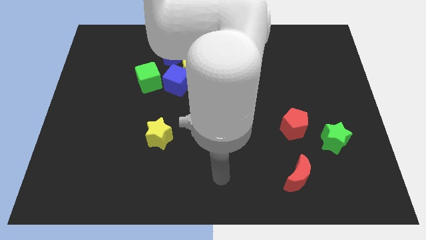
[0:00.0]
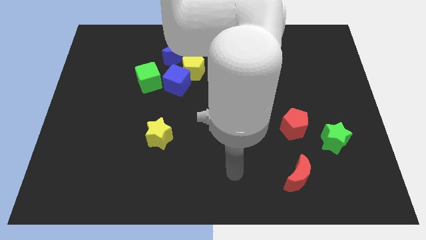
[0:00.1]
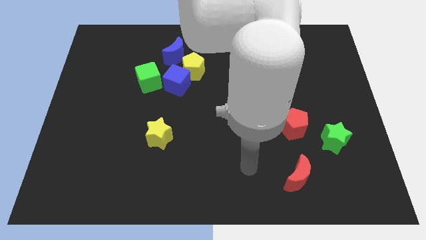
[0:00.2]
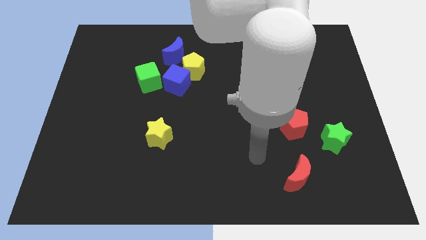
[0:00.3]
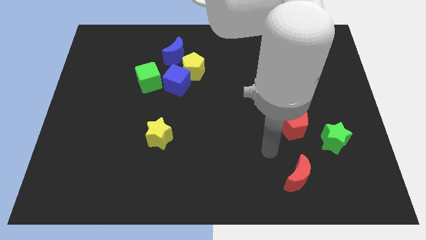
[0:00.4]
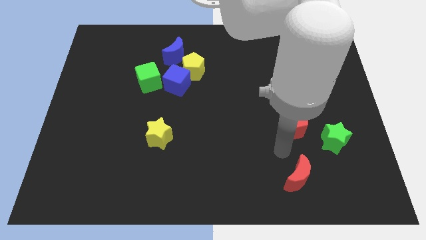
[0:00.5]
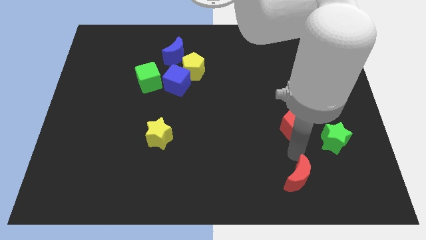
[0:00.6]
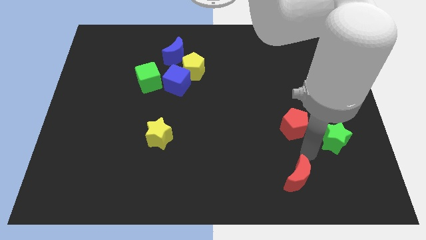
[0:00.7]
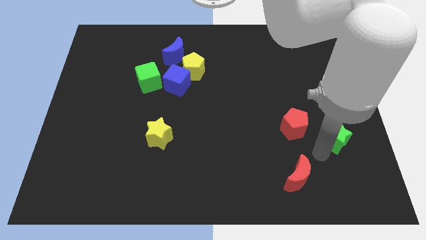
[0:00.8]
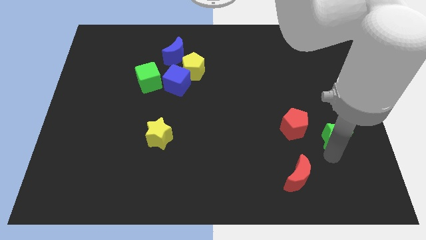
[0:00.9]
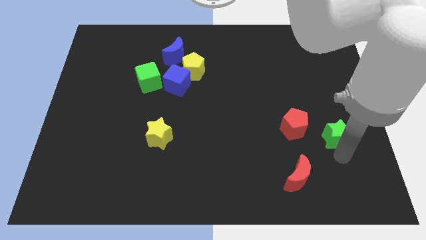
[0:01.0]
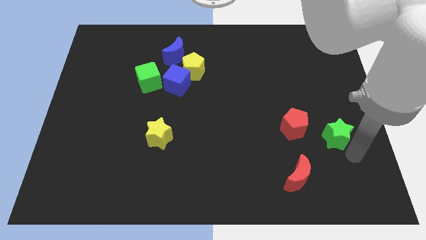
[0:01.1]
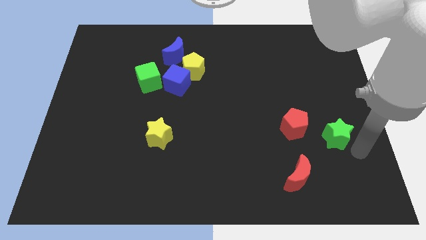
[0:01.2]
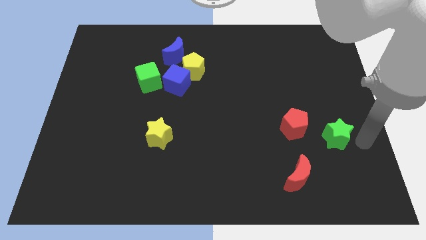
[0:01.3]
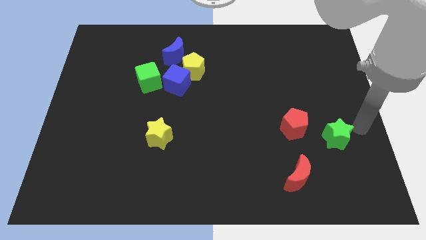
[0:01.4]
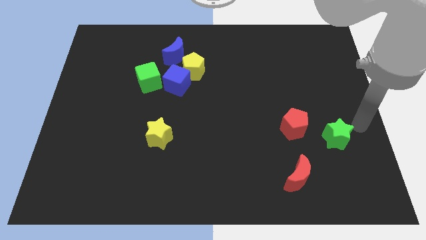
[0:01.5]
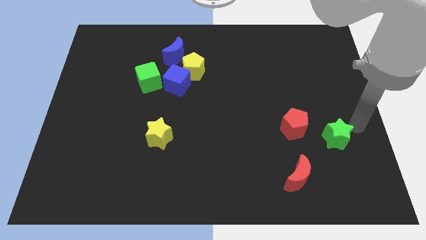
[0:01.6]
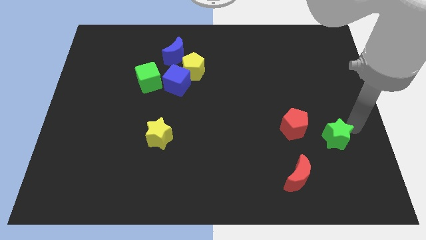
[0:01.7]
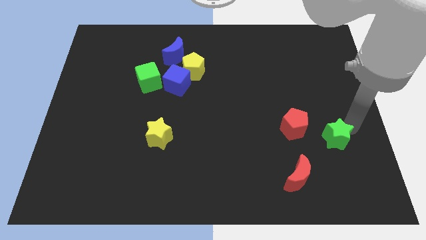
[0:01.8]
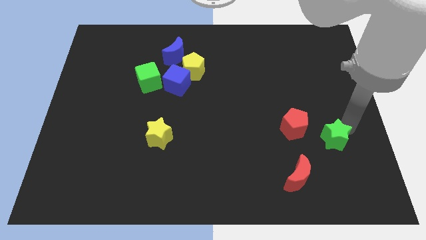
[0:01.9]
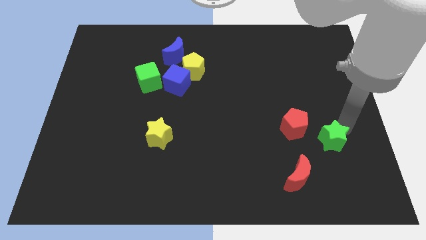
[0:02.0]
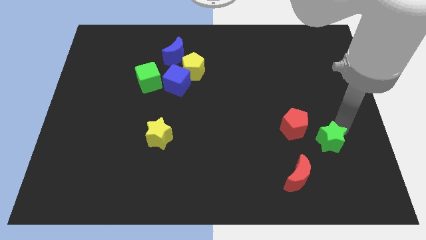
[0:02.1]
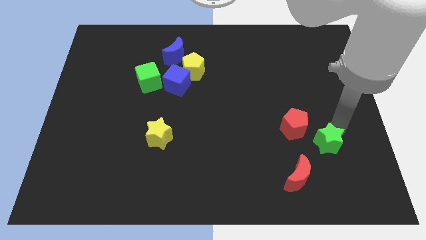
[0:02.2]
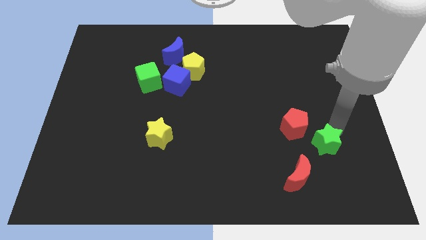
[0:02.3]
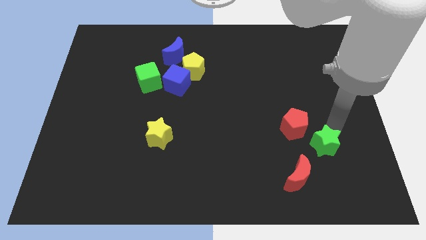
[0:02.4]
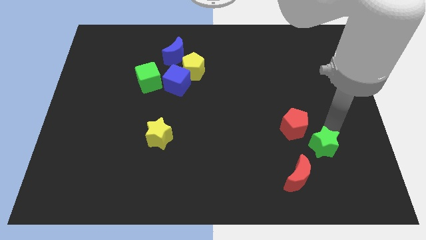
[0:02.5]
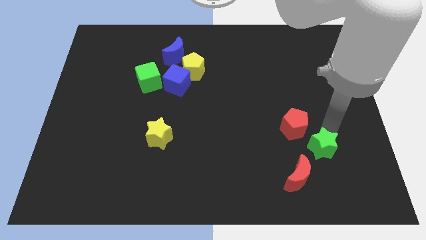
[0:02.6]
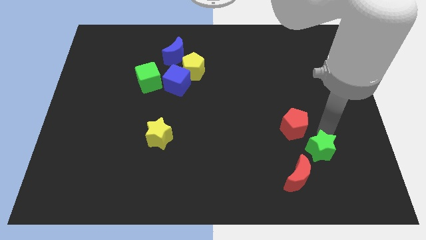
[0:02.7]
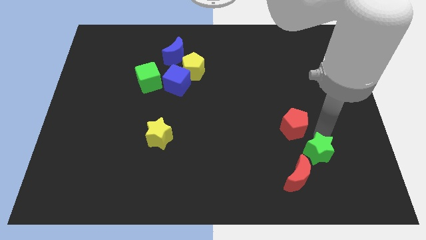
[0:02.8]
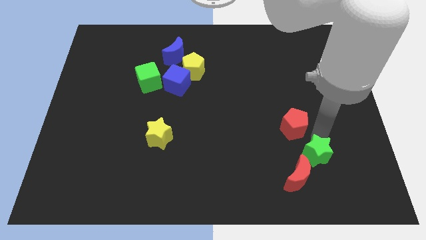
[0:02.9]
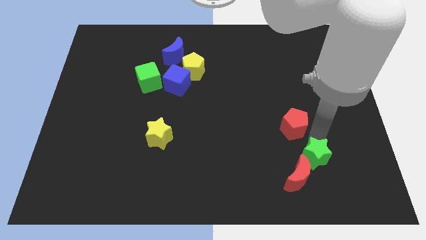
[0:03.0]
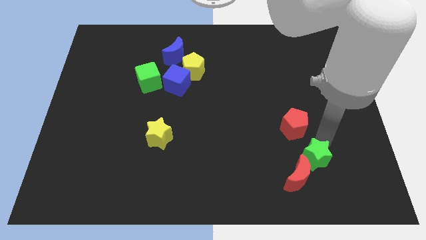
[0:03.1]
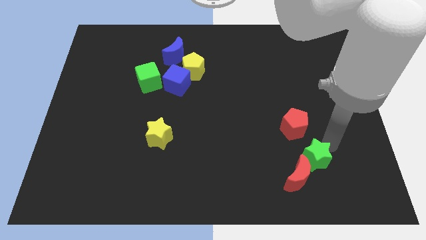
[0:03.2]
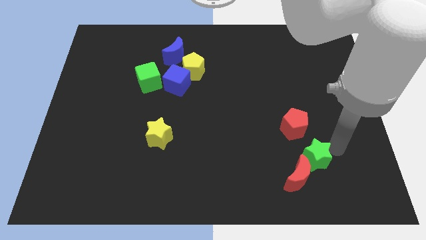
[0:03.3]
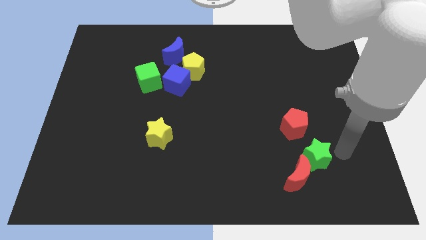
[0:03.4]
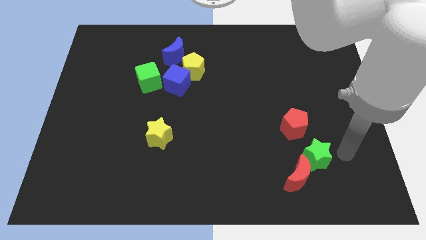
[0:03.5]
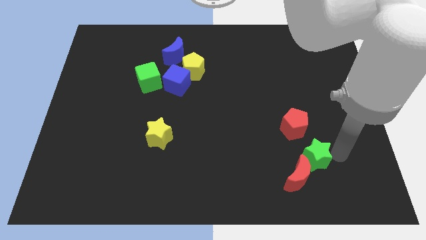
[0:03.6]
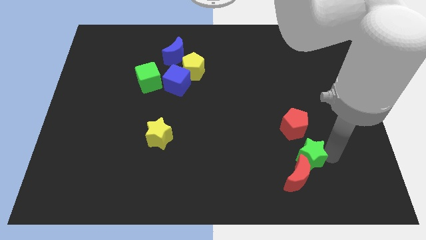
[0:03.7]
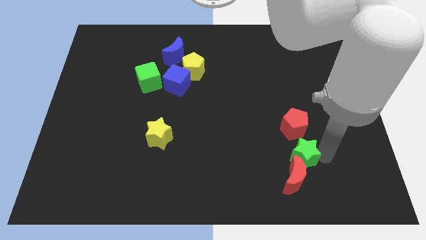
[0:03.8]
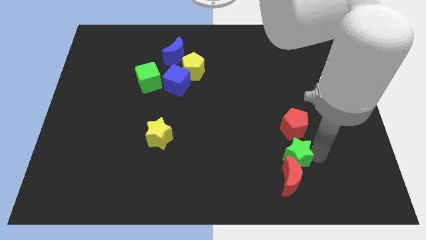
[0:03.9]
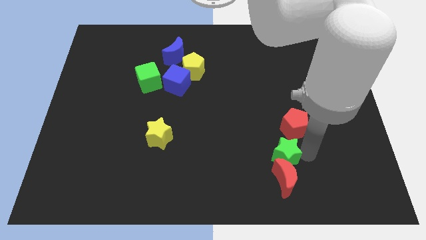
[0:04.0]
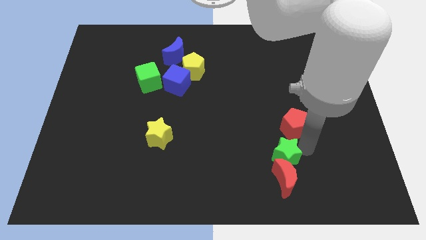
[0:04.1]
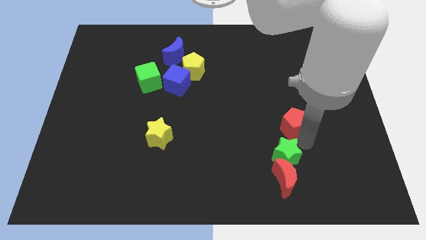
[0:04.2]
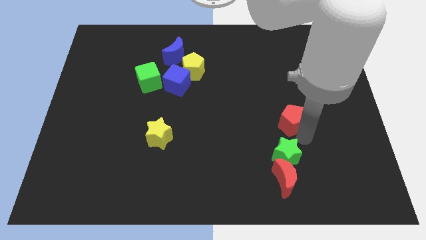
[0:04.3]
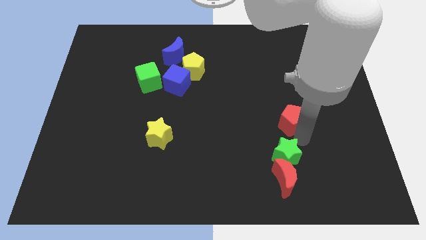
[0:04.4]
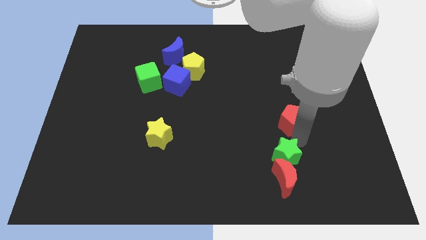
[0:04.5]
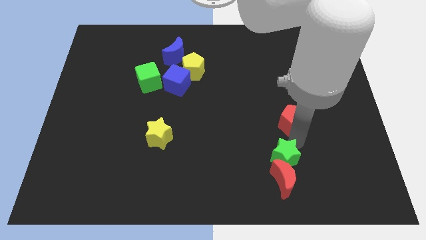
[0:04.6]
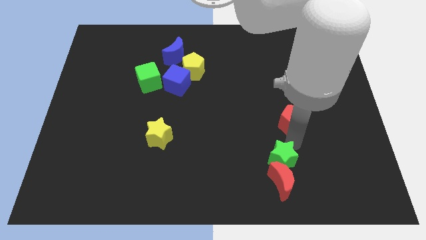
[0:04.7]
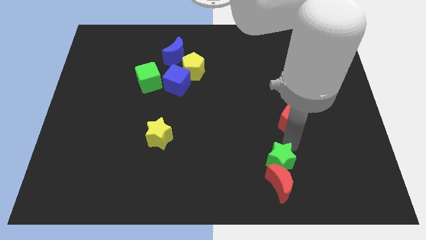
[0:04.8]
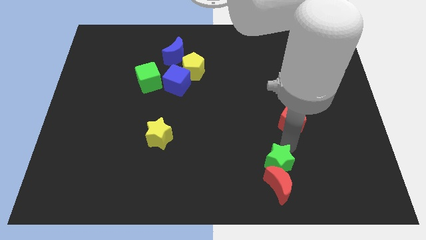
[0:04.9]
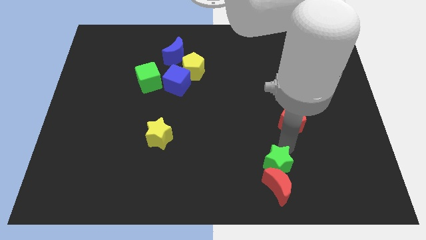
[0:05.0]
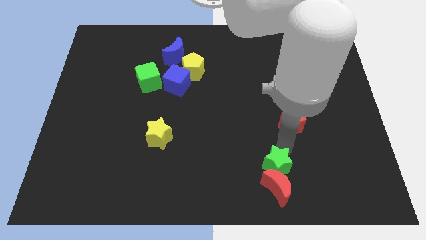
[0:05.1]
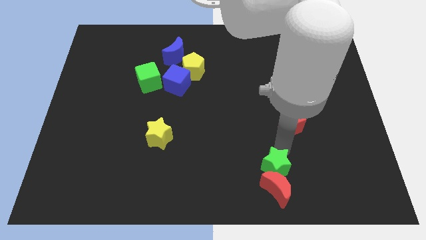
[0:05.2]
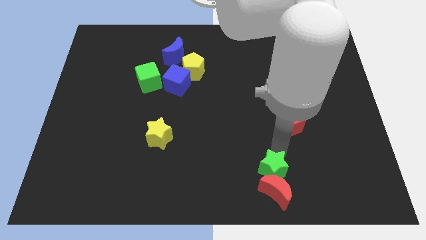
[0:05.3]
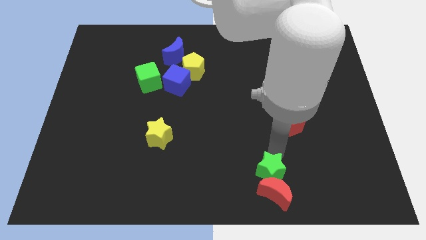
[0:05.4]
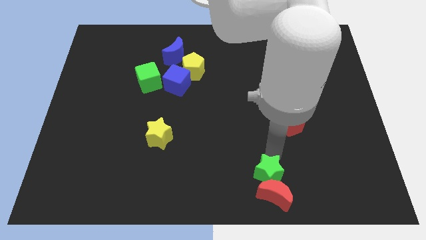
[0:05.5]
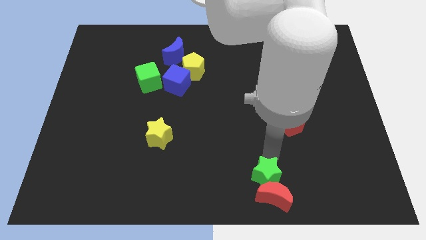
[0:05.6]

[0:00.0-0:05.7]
move the green star to the bottom

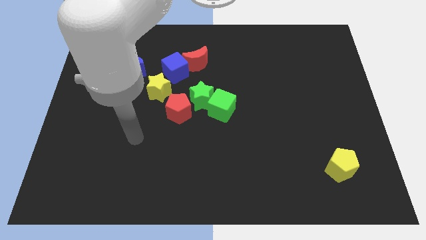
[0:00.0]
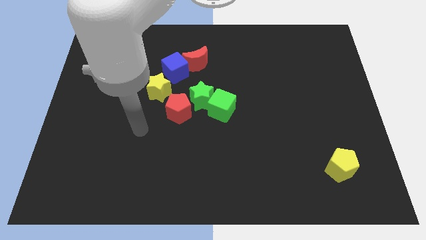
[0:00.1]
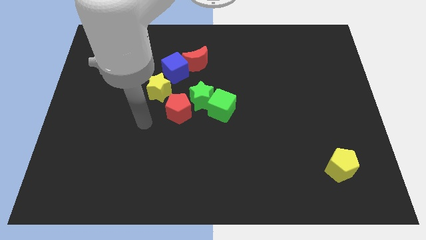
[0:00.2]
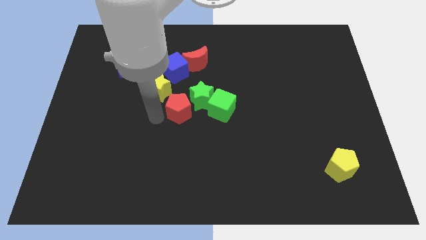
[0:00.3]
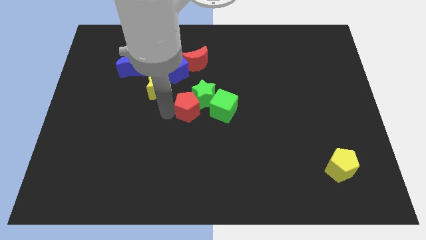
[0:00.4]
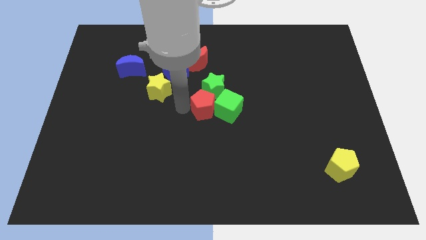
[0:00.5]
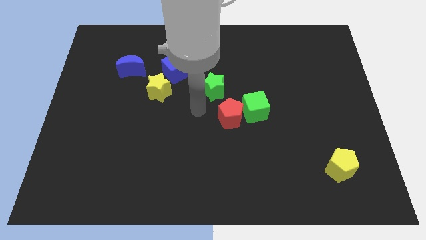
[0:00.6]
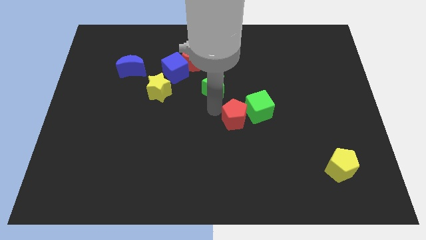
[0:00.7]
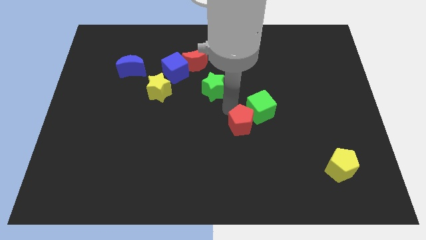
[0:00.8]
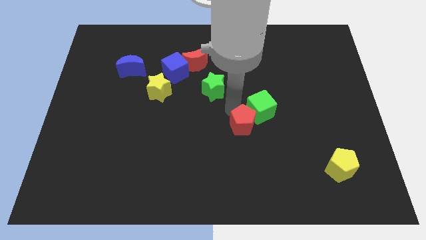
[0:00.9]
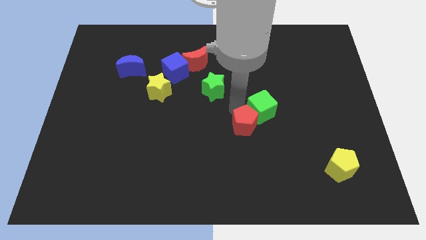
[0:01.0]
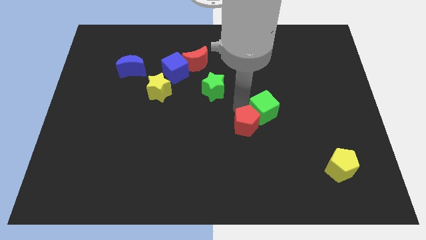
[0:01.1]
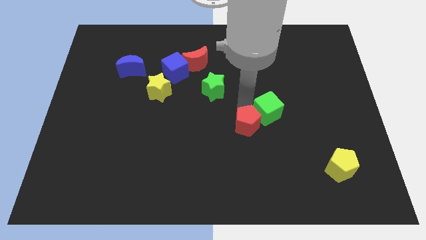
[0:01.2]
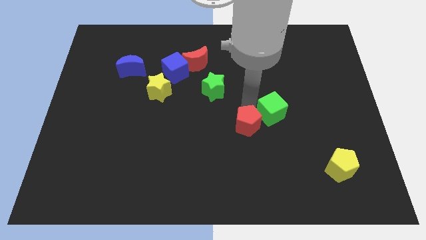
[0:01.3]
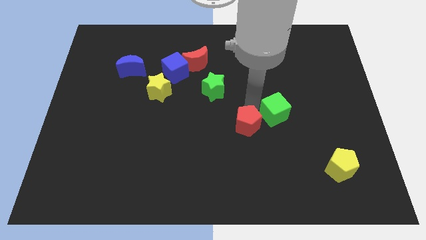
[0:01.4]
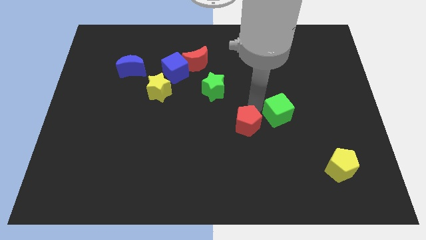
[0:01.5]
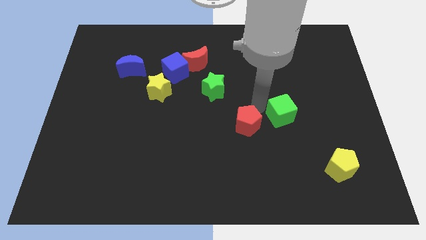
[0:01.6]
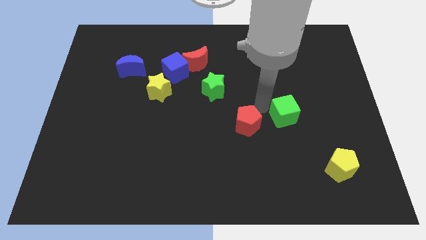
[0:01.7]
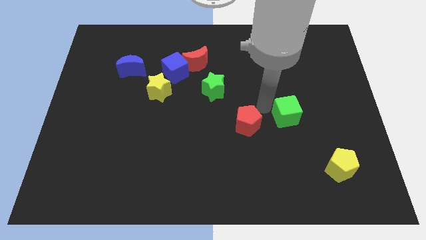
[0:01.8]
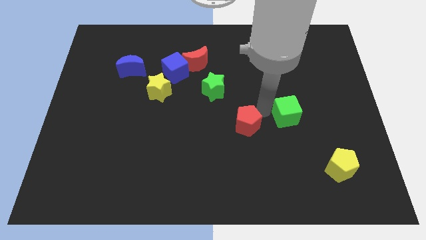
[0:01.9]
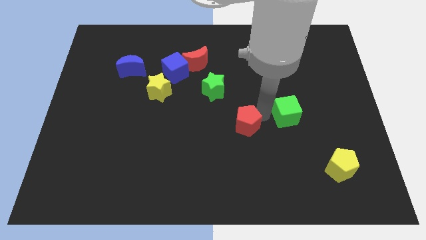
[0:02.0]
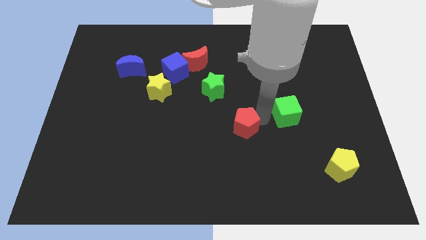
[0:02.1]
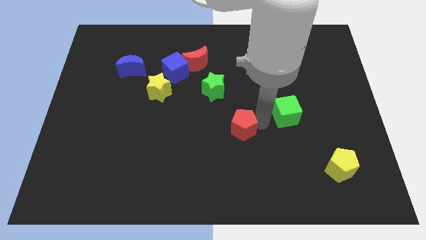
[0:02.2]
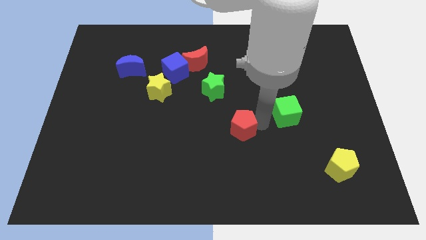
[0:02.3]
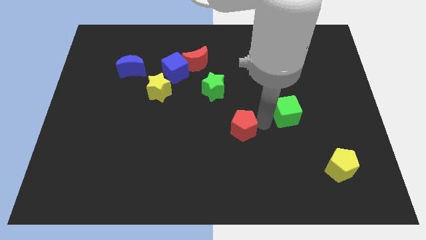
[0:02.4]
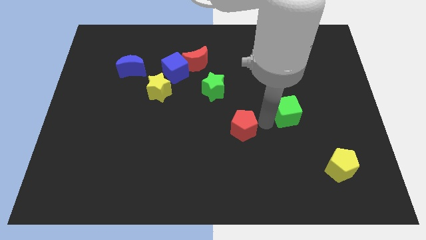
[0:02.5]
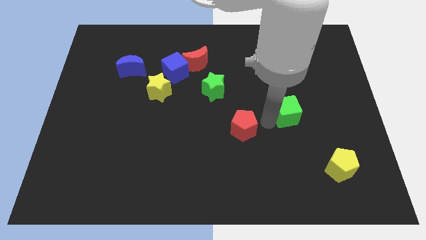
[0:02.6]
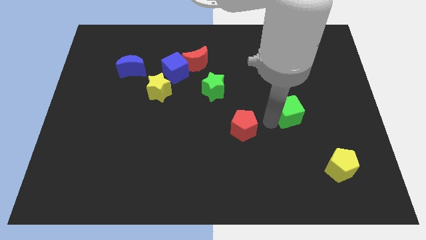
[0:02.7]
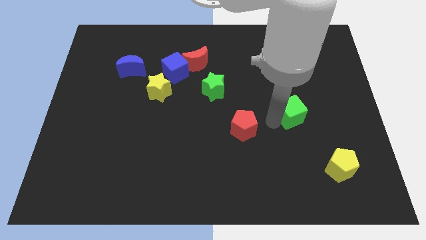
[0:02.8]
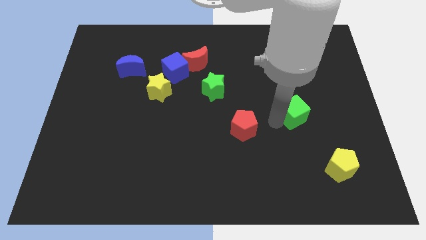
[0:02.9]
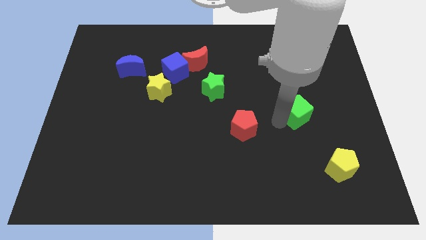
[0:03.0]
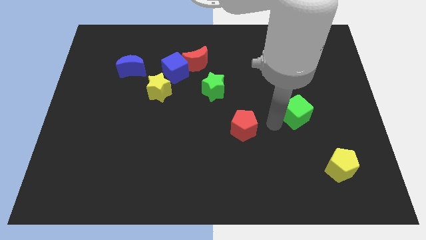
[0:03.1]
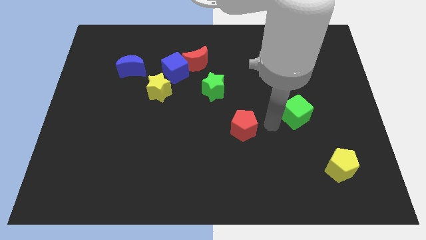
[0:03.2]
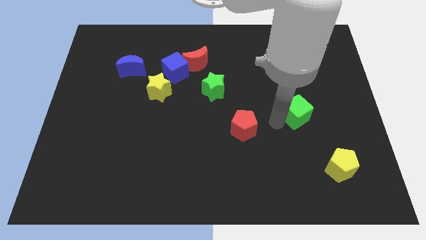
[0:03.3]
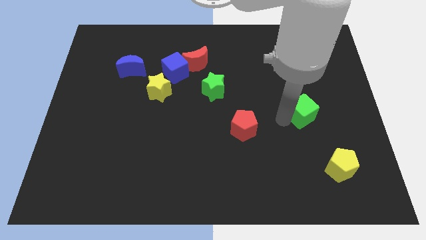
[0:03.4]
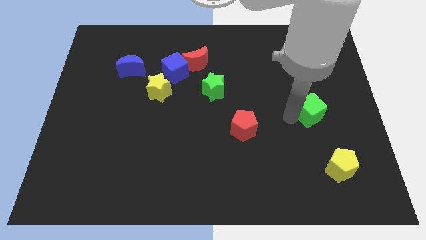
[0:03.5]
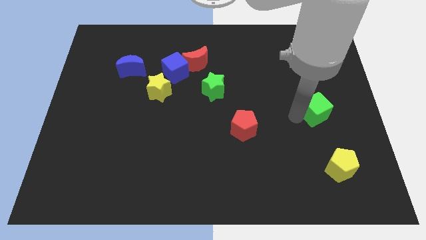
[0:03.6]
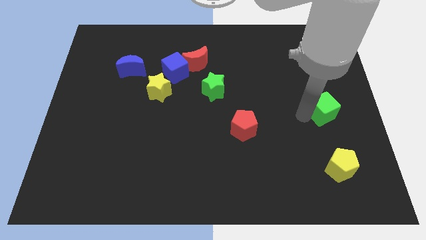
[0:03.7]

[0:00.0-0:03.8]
put the green cube to the right side of the board
